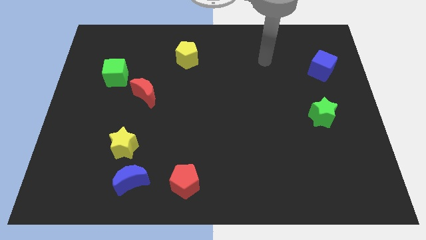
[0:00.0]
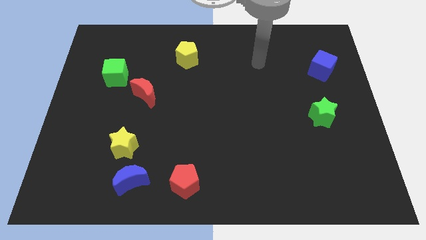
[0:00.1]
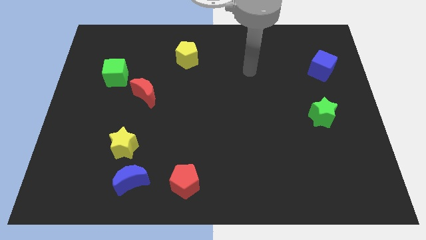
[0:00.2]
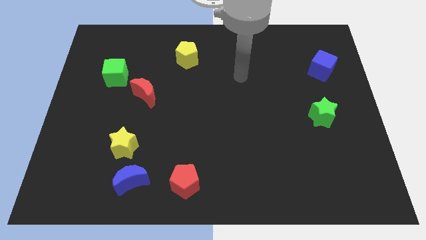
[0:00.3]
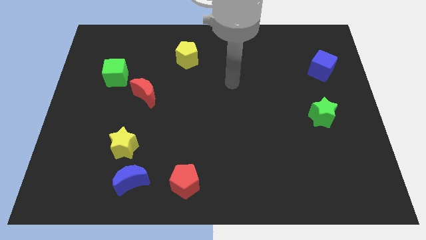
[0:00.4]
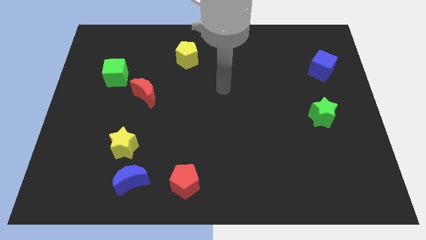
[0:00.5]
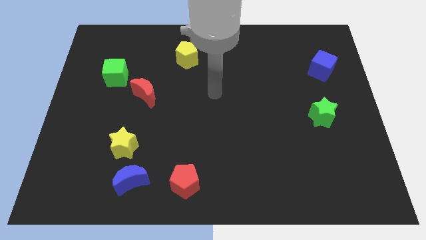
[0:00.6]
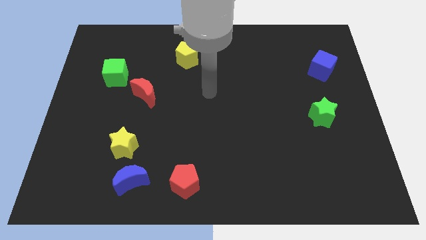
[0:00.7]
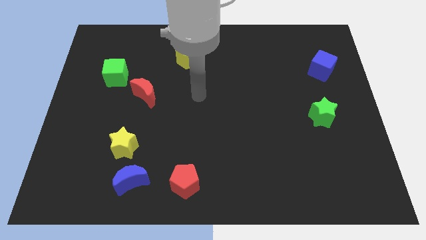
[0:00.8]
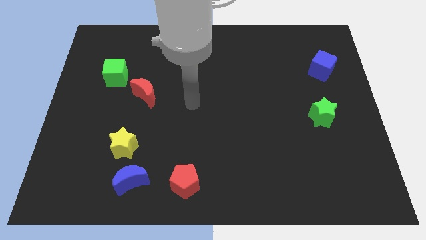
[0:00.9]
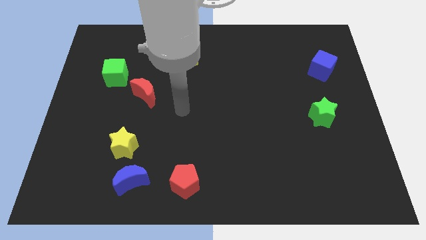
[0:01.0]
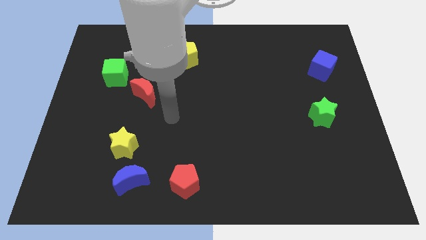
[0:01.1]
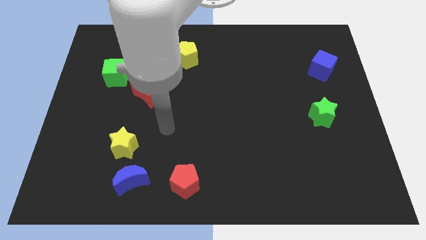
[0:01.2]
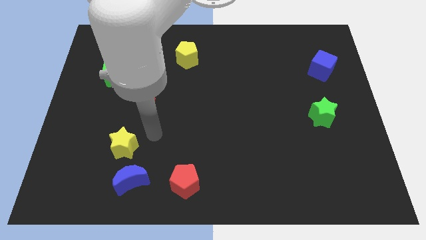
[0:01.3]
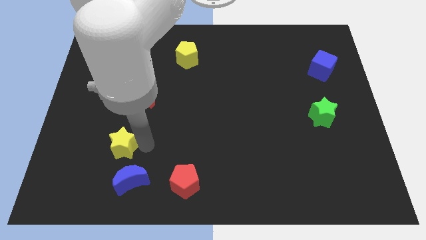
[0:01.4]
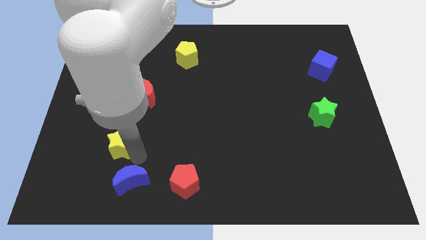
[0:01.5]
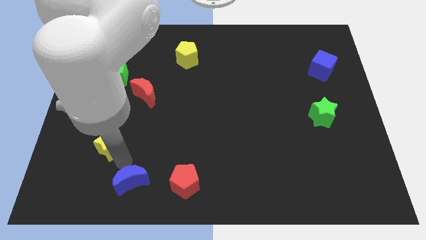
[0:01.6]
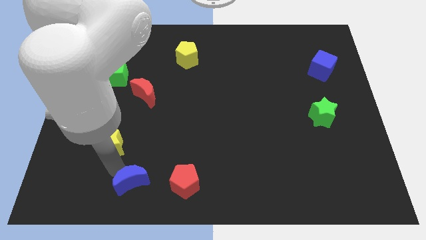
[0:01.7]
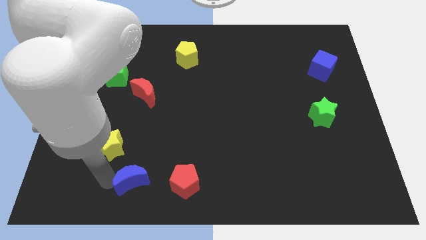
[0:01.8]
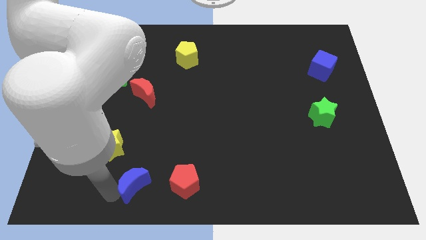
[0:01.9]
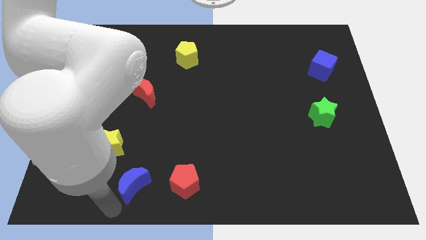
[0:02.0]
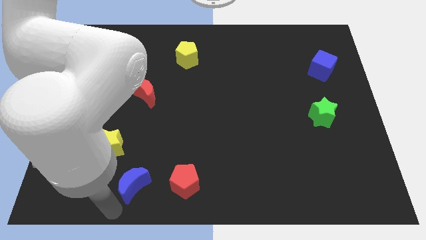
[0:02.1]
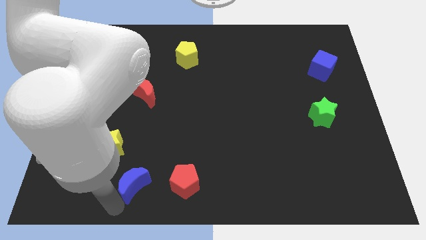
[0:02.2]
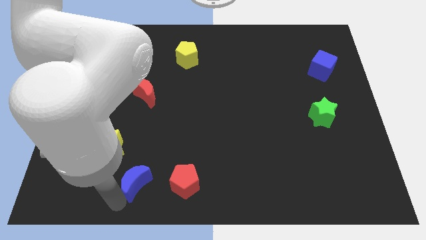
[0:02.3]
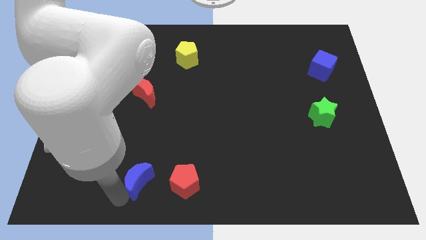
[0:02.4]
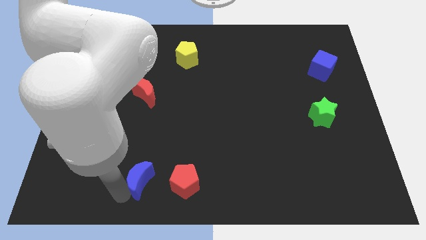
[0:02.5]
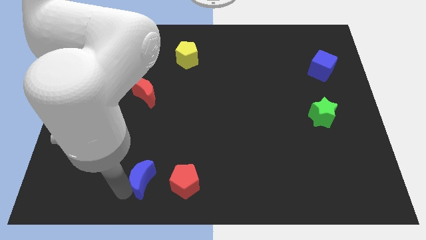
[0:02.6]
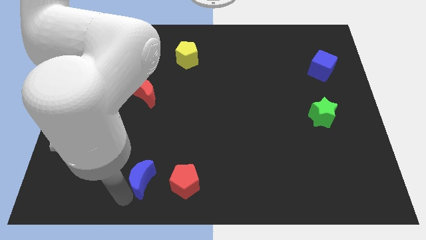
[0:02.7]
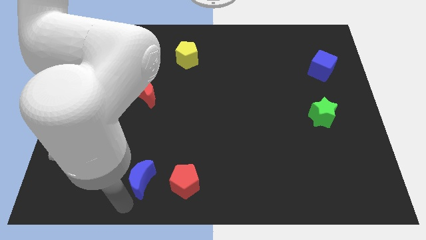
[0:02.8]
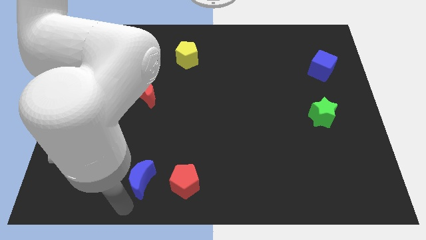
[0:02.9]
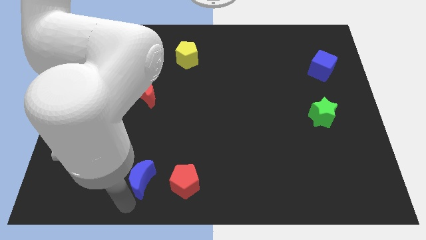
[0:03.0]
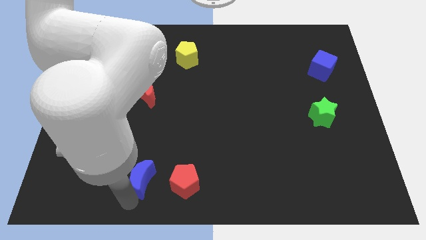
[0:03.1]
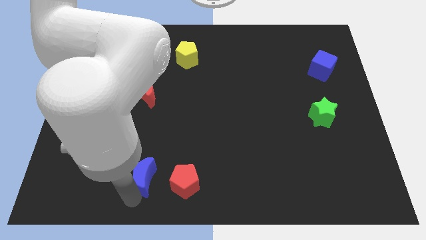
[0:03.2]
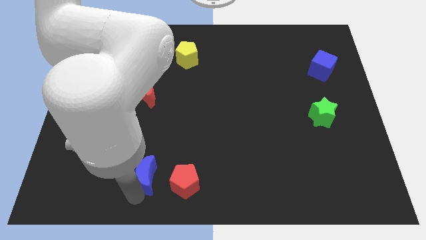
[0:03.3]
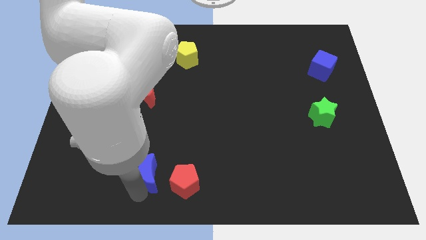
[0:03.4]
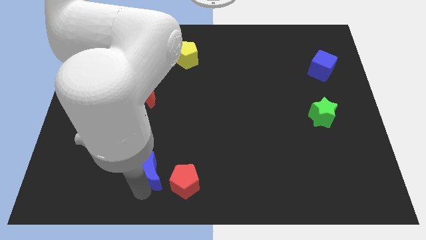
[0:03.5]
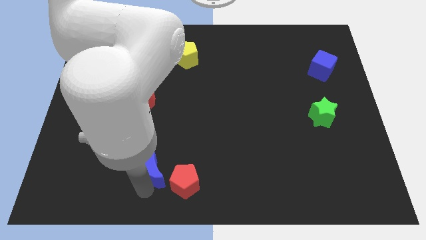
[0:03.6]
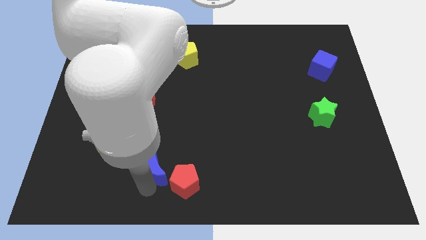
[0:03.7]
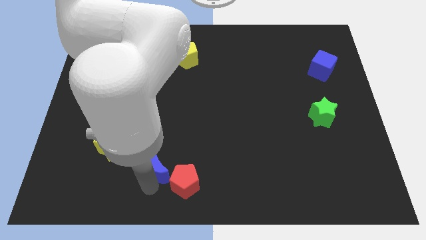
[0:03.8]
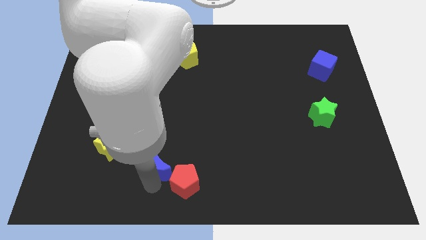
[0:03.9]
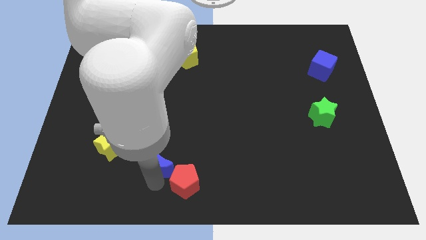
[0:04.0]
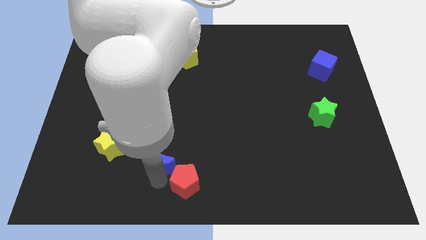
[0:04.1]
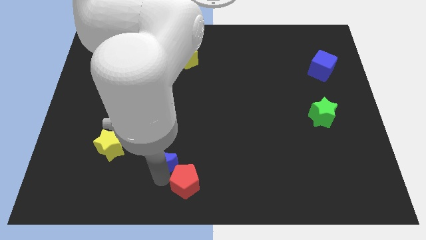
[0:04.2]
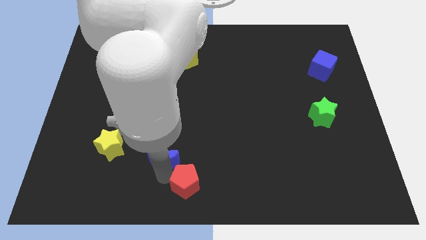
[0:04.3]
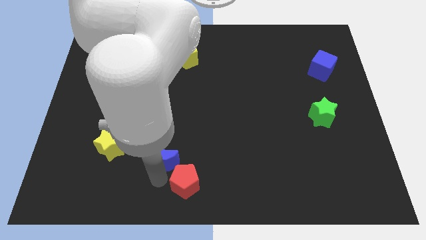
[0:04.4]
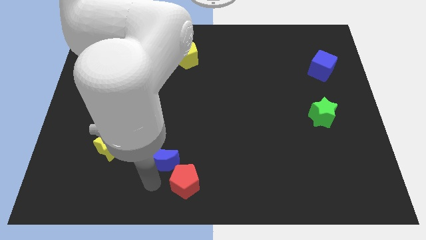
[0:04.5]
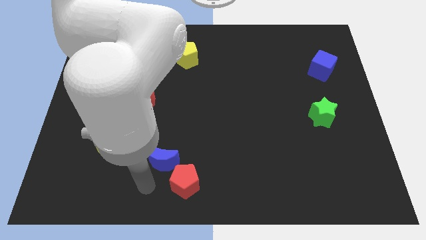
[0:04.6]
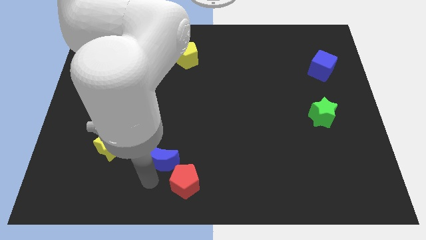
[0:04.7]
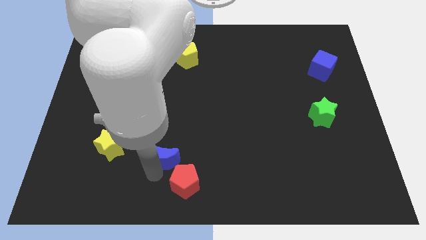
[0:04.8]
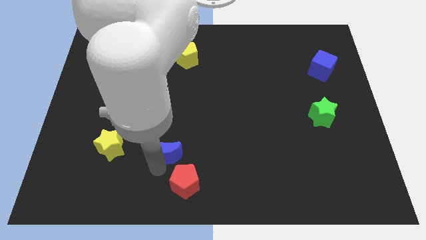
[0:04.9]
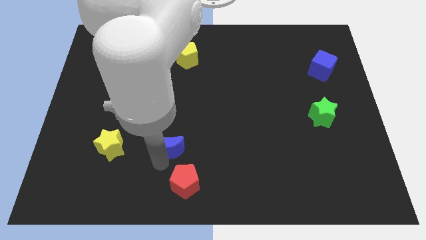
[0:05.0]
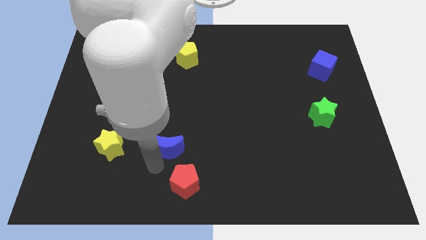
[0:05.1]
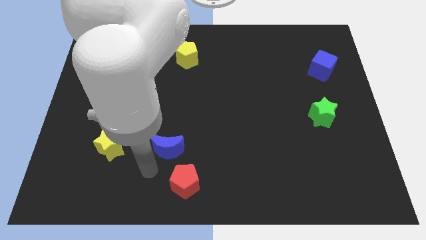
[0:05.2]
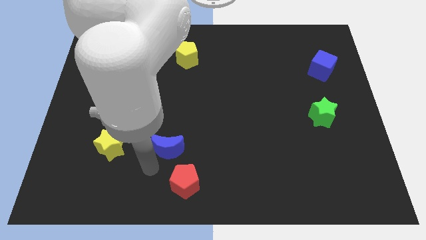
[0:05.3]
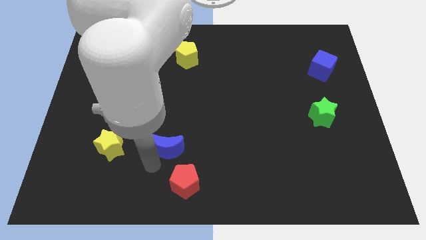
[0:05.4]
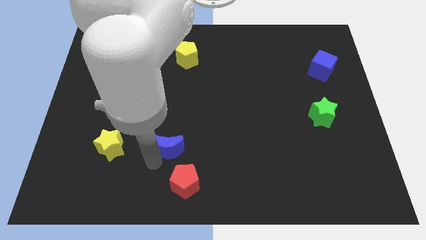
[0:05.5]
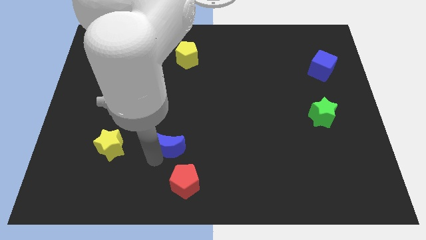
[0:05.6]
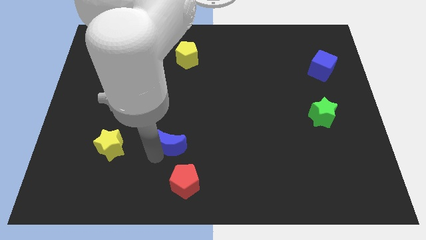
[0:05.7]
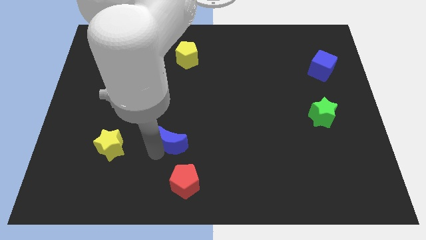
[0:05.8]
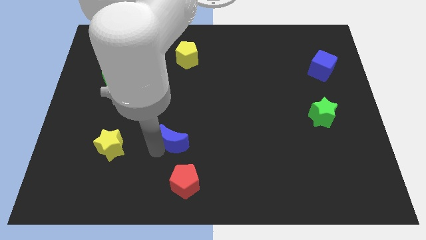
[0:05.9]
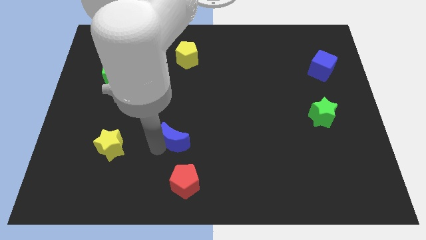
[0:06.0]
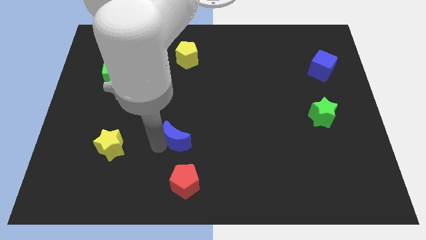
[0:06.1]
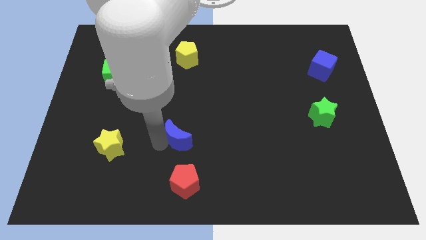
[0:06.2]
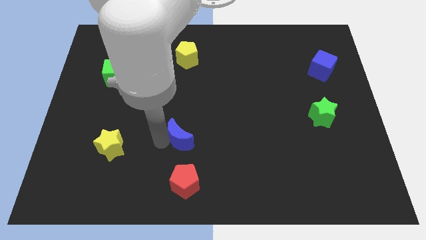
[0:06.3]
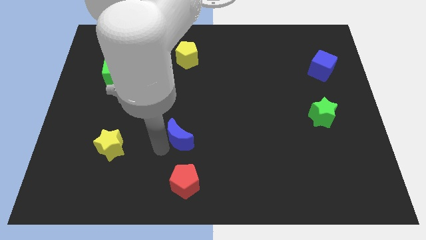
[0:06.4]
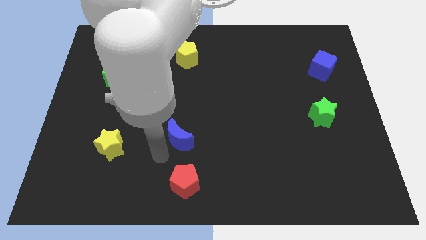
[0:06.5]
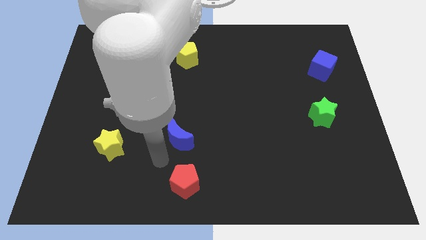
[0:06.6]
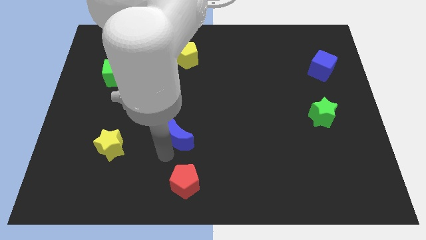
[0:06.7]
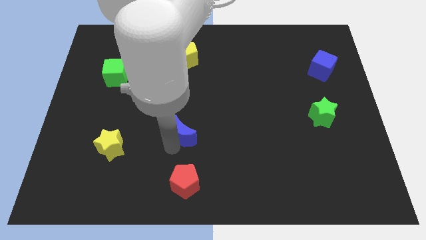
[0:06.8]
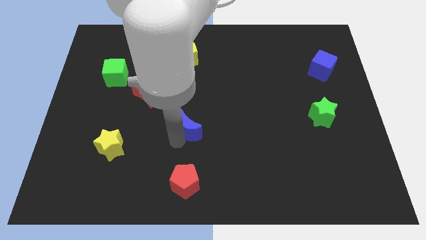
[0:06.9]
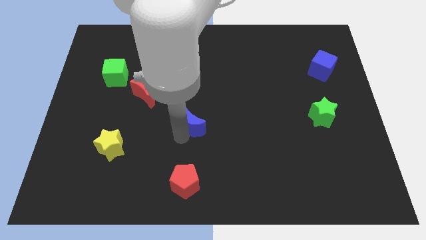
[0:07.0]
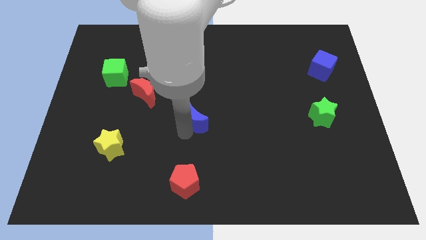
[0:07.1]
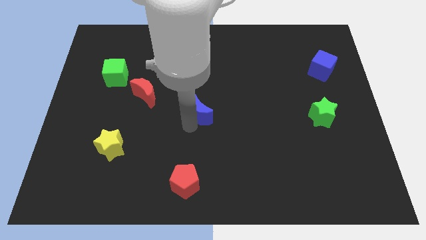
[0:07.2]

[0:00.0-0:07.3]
move the blue moon diagonally up and to the right

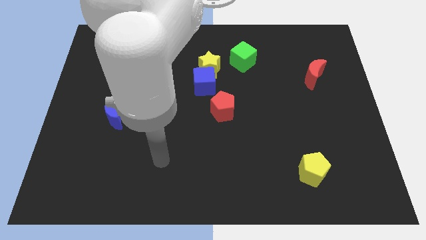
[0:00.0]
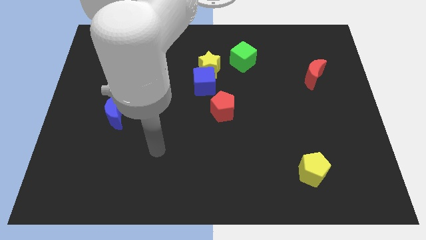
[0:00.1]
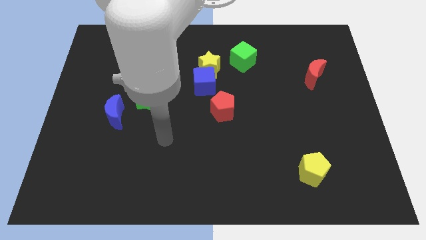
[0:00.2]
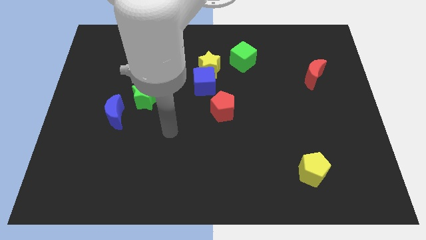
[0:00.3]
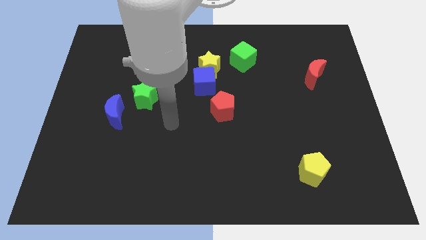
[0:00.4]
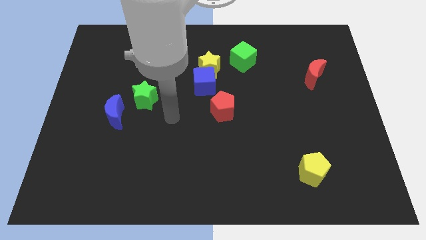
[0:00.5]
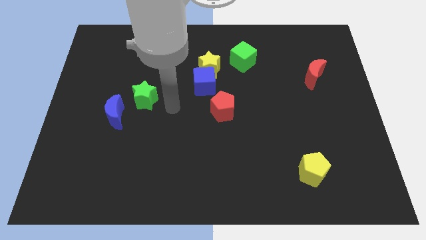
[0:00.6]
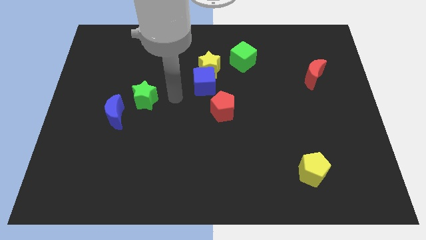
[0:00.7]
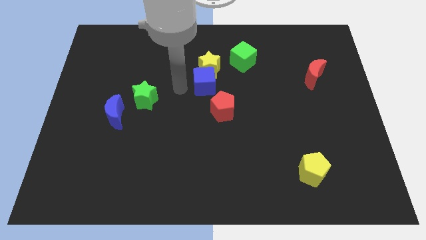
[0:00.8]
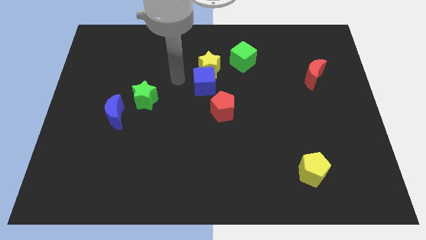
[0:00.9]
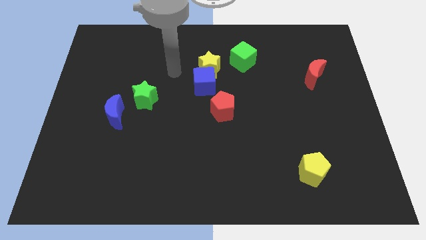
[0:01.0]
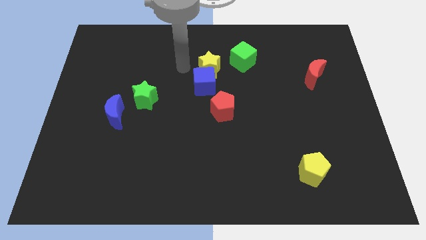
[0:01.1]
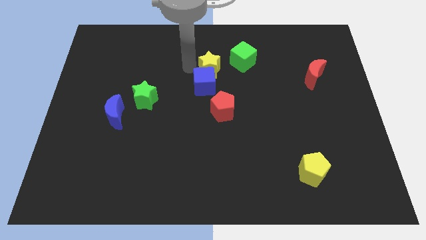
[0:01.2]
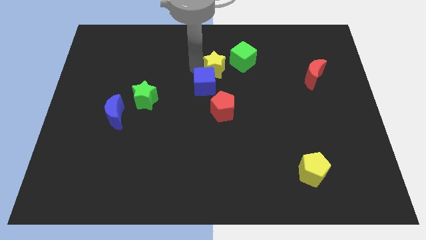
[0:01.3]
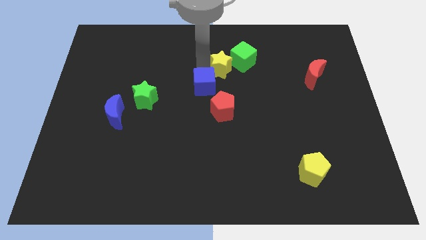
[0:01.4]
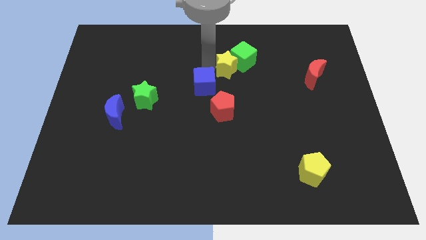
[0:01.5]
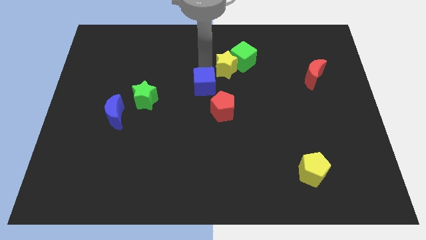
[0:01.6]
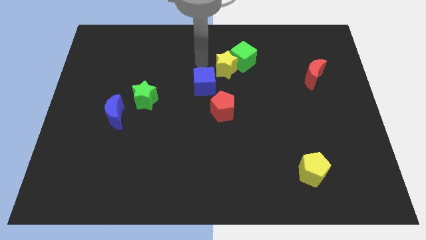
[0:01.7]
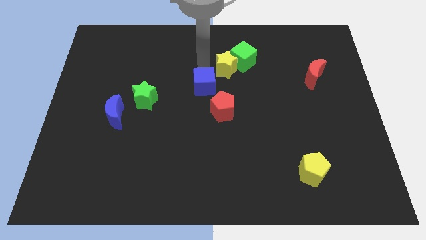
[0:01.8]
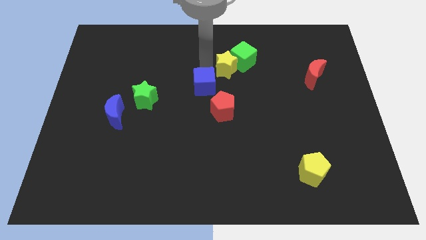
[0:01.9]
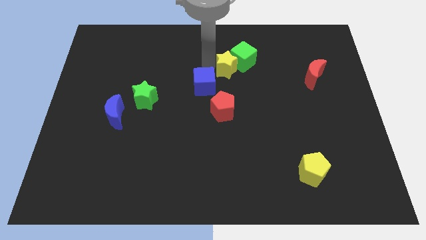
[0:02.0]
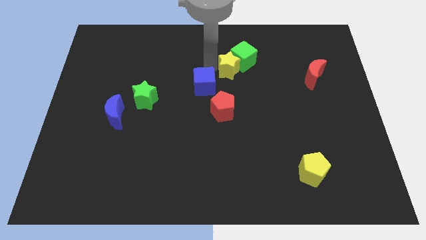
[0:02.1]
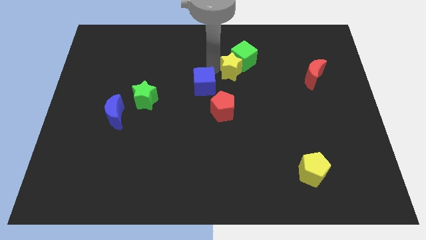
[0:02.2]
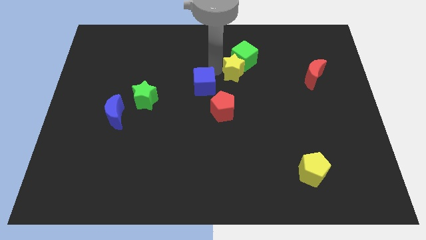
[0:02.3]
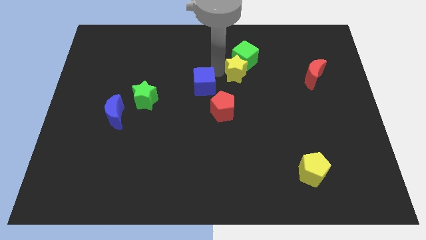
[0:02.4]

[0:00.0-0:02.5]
push the yellow star to the right a little bit
